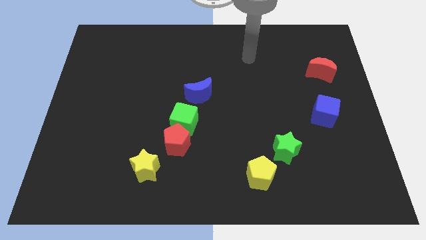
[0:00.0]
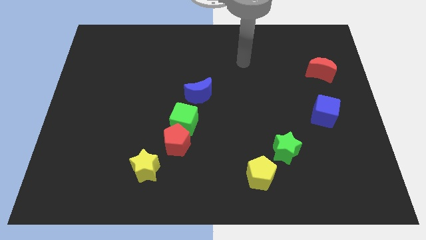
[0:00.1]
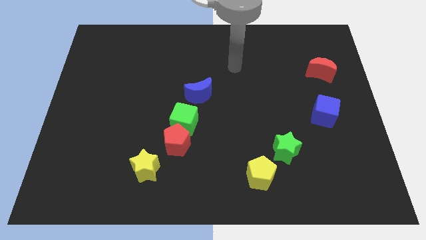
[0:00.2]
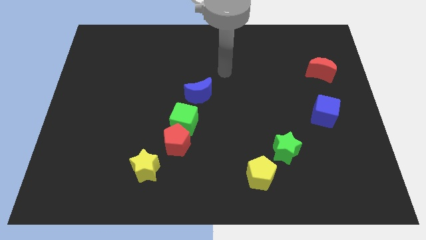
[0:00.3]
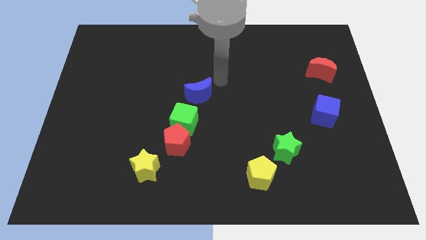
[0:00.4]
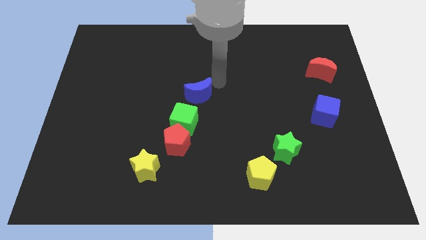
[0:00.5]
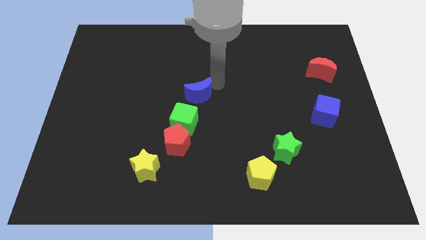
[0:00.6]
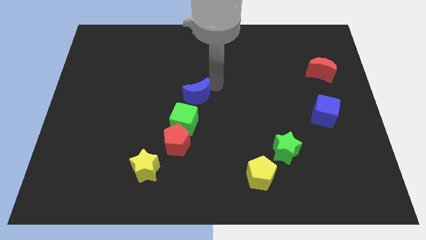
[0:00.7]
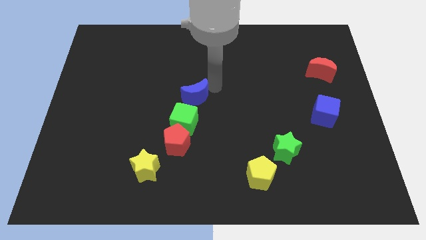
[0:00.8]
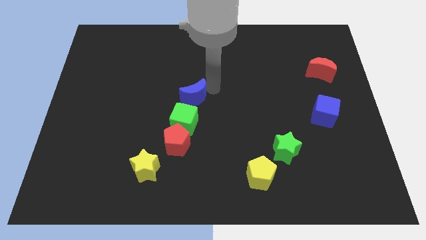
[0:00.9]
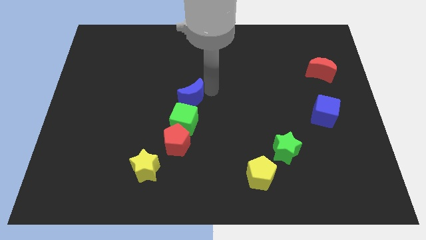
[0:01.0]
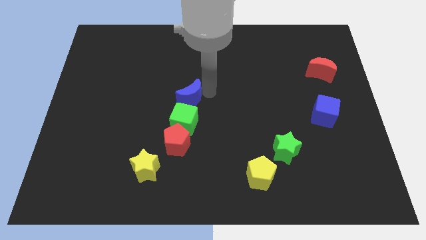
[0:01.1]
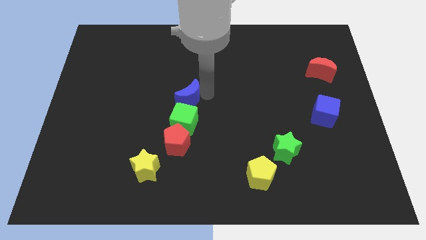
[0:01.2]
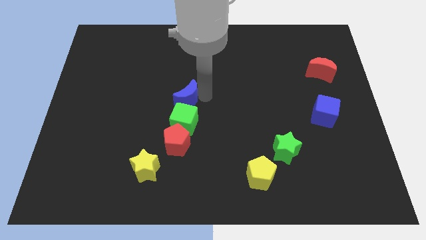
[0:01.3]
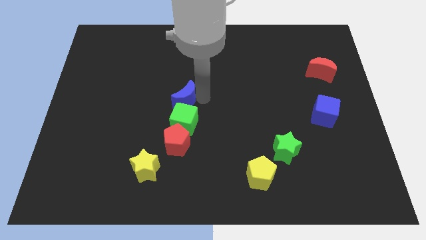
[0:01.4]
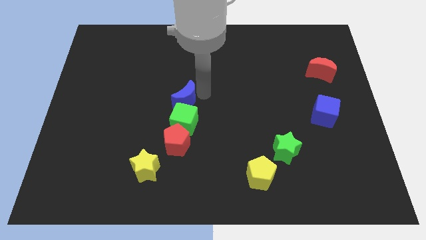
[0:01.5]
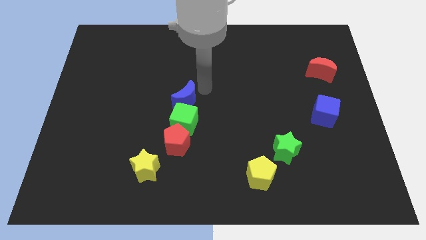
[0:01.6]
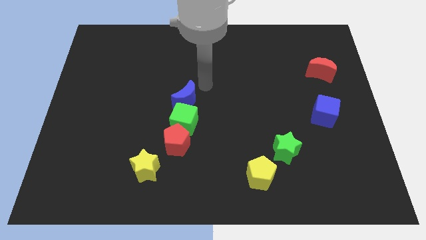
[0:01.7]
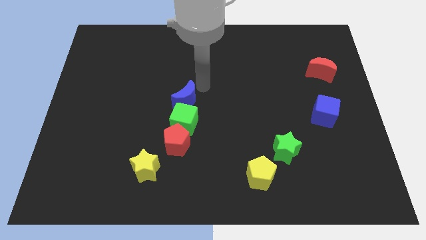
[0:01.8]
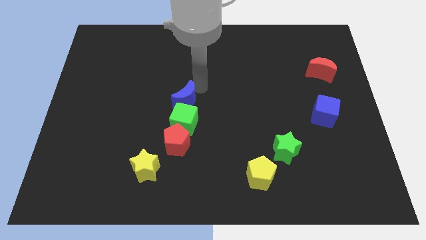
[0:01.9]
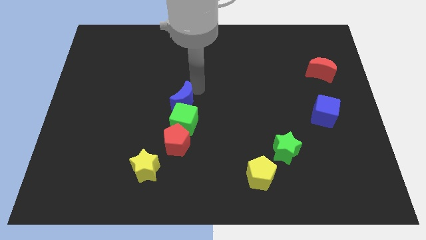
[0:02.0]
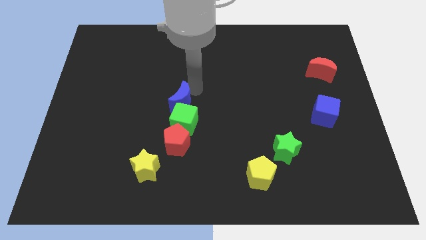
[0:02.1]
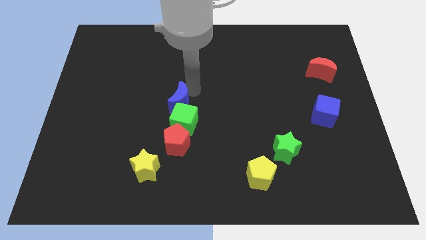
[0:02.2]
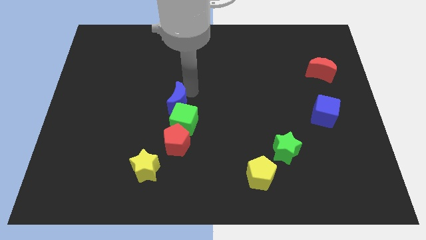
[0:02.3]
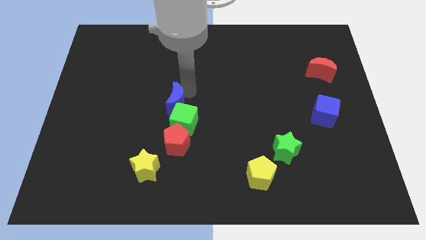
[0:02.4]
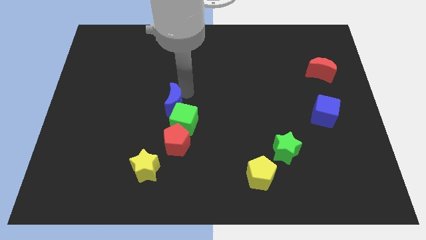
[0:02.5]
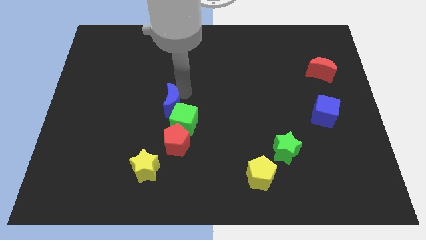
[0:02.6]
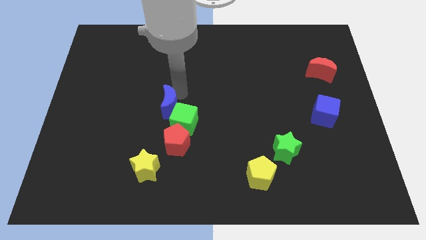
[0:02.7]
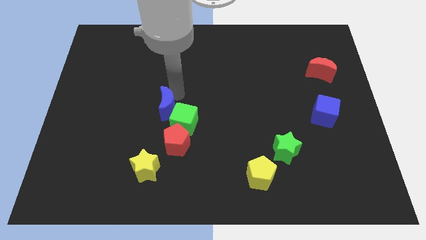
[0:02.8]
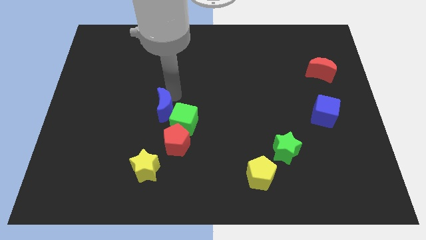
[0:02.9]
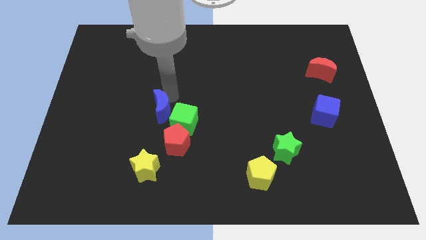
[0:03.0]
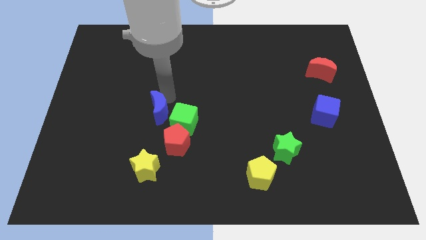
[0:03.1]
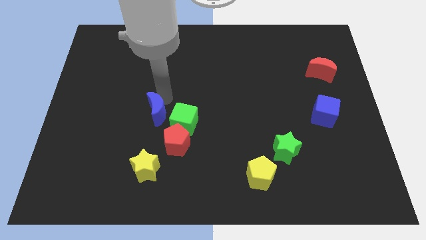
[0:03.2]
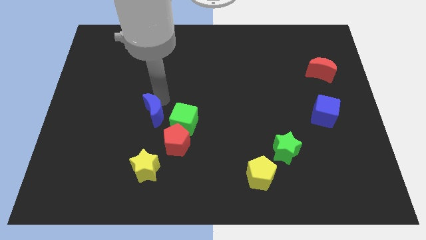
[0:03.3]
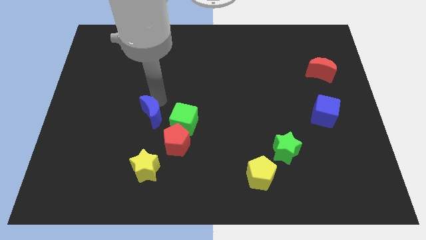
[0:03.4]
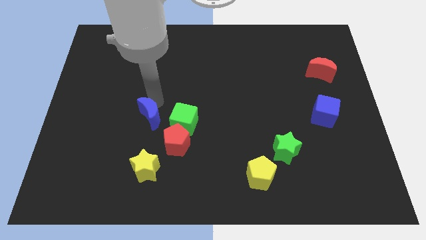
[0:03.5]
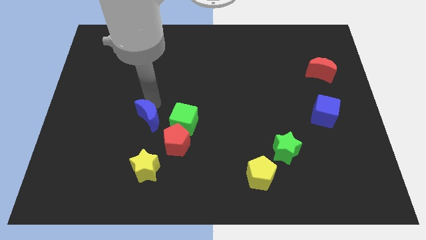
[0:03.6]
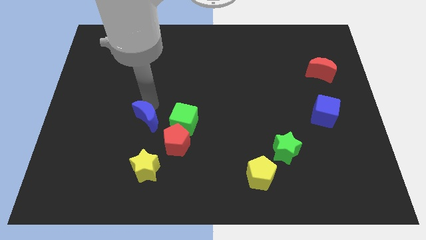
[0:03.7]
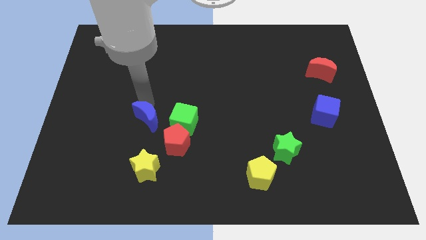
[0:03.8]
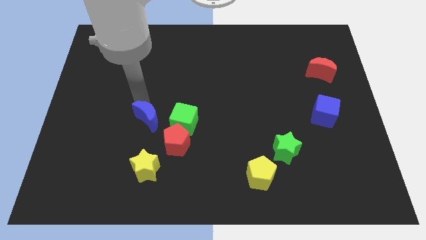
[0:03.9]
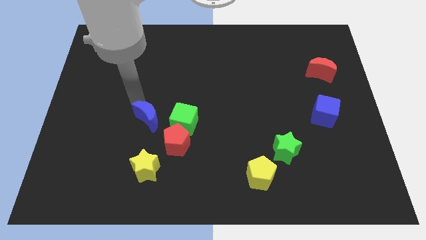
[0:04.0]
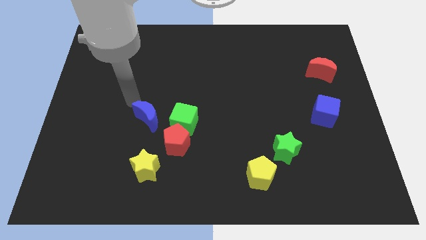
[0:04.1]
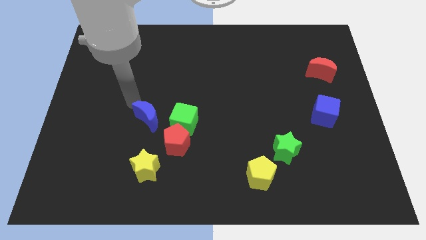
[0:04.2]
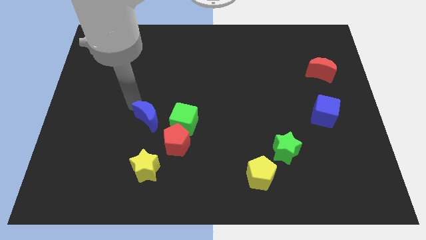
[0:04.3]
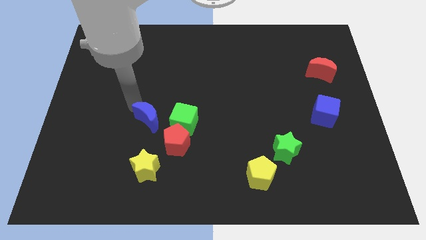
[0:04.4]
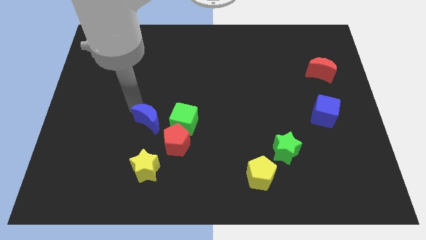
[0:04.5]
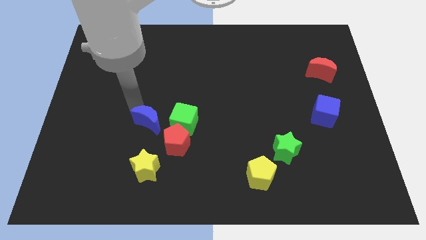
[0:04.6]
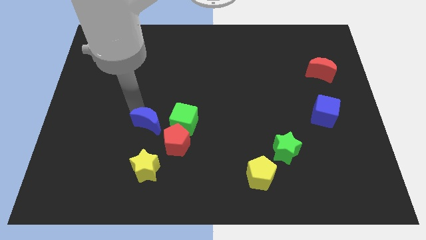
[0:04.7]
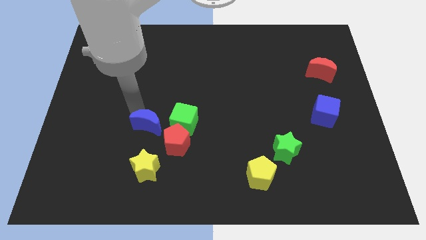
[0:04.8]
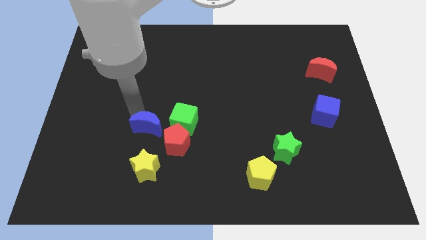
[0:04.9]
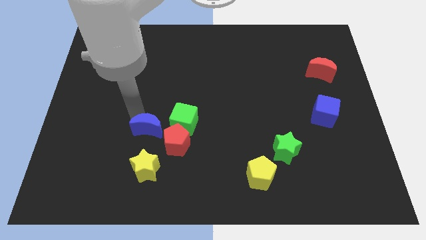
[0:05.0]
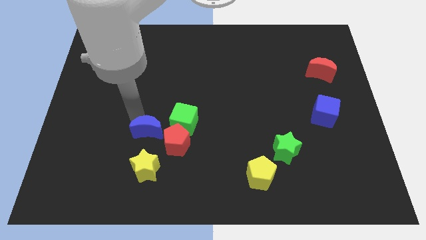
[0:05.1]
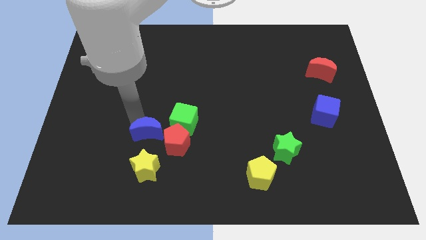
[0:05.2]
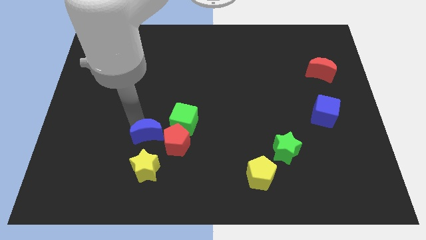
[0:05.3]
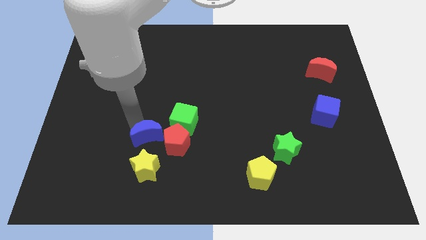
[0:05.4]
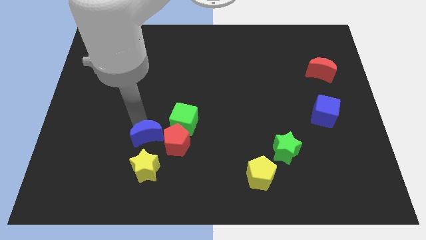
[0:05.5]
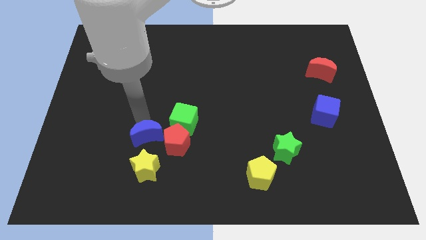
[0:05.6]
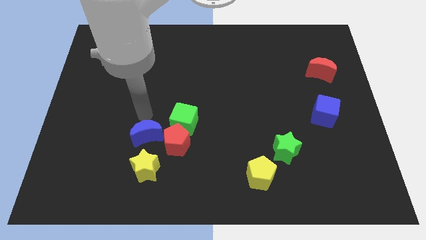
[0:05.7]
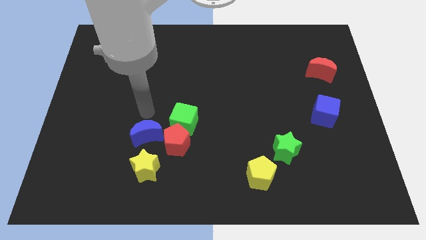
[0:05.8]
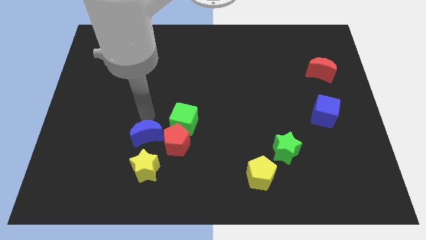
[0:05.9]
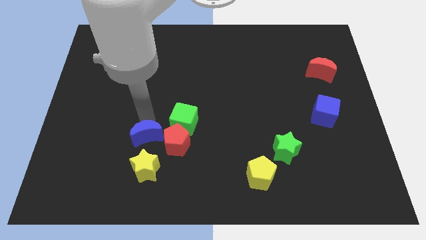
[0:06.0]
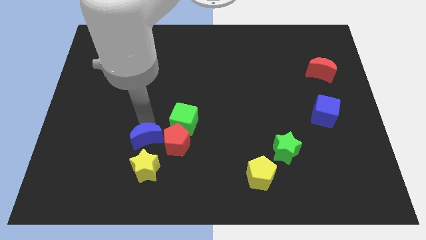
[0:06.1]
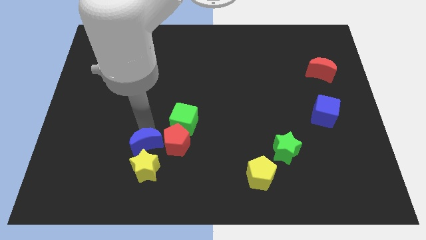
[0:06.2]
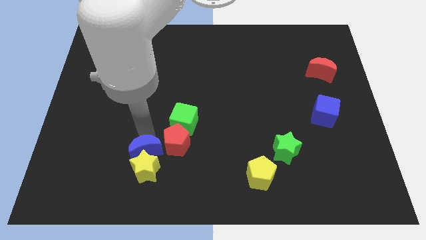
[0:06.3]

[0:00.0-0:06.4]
move the blue moon towards the yellow star

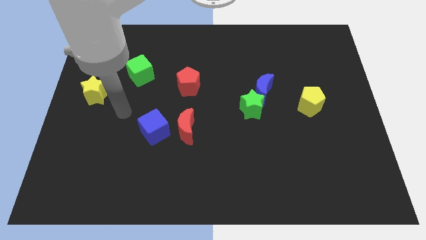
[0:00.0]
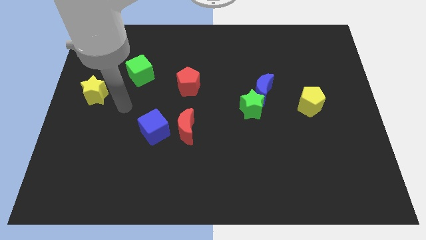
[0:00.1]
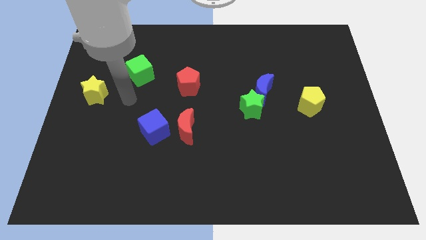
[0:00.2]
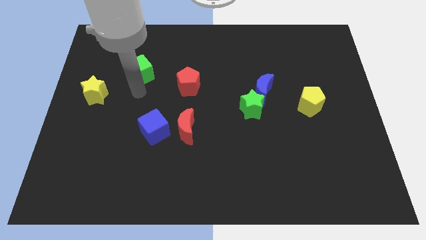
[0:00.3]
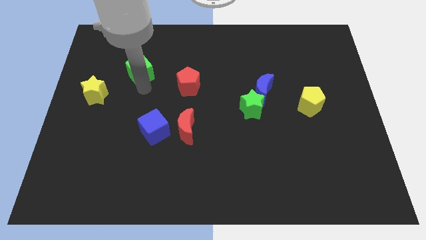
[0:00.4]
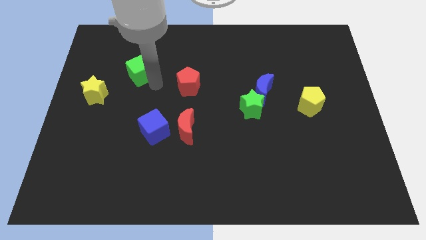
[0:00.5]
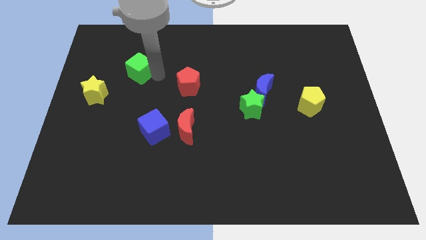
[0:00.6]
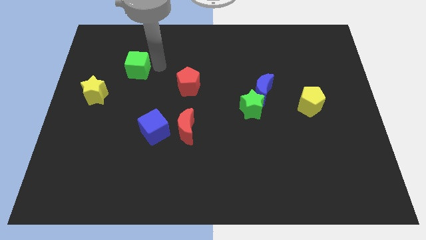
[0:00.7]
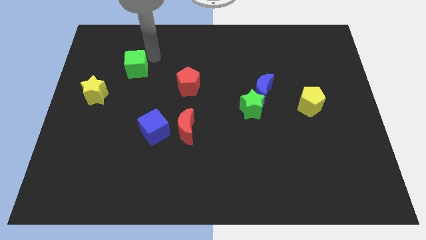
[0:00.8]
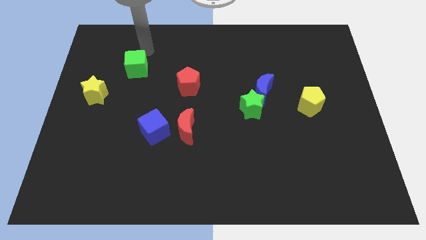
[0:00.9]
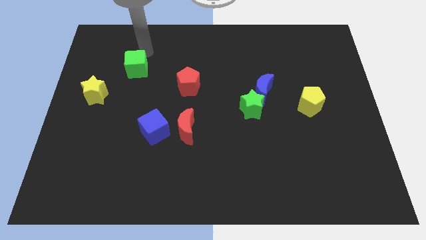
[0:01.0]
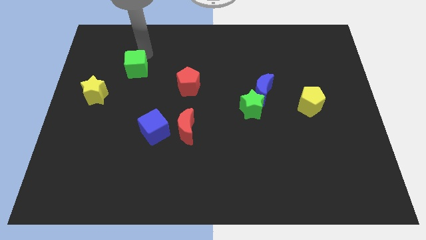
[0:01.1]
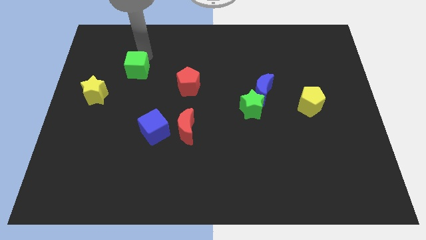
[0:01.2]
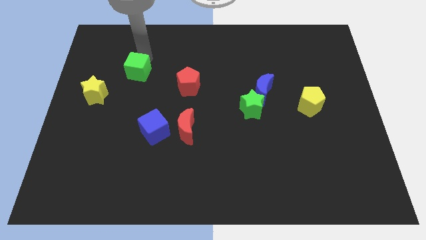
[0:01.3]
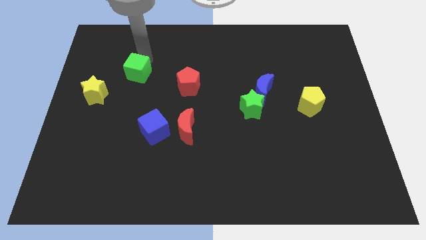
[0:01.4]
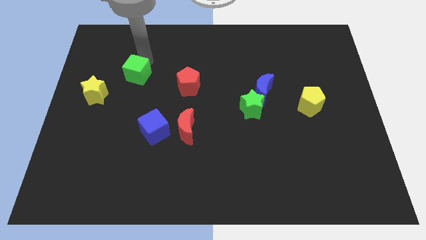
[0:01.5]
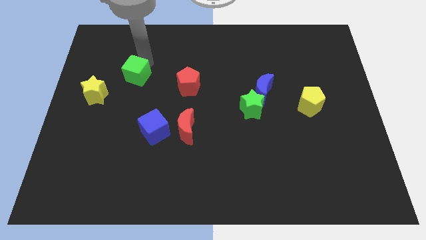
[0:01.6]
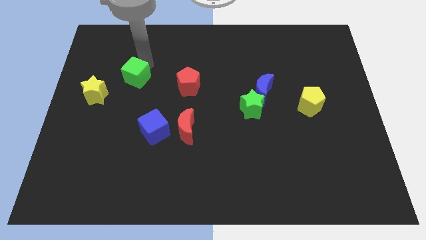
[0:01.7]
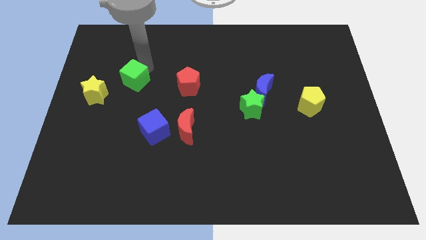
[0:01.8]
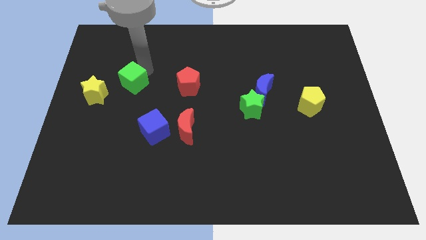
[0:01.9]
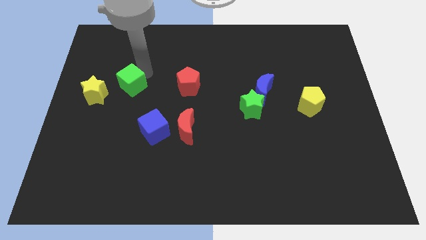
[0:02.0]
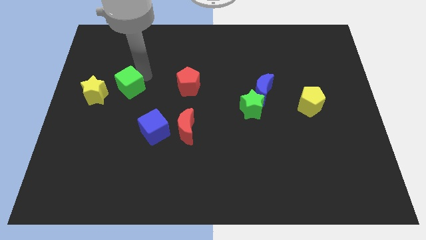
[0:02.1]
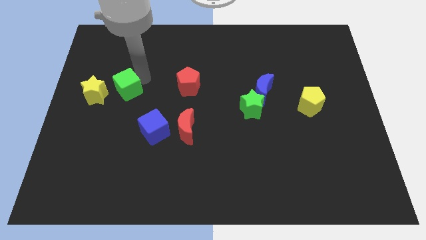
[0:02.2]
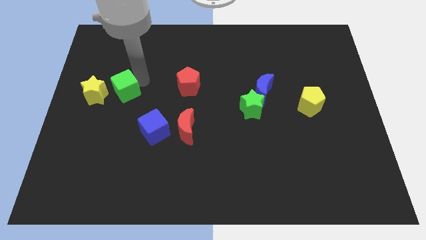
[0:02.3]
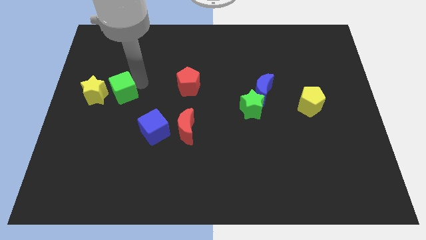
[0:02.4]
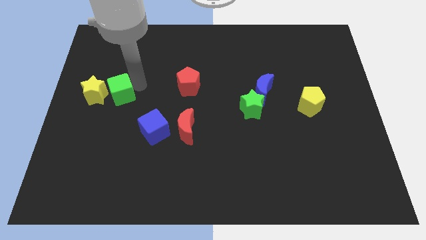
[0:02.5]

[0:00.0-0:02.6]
push the green cube to the yellow star
